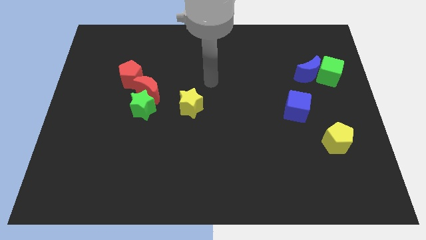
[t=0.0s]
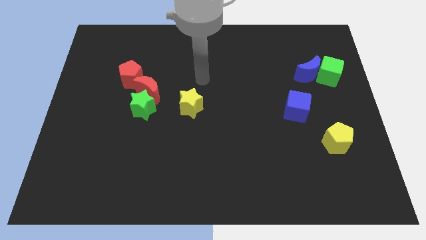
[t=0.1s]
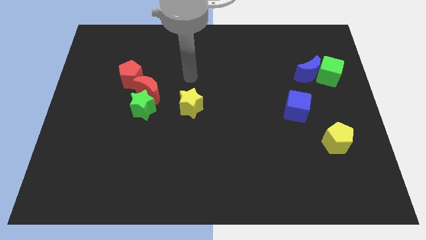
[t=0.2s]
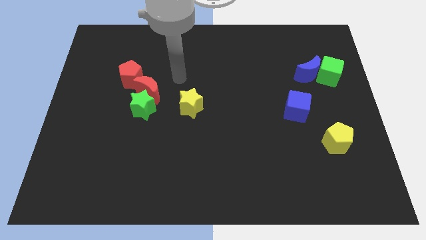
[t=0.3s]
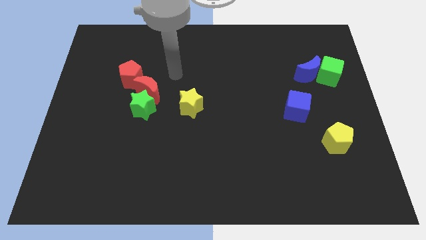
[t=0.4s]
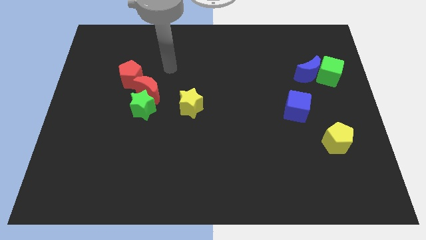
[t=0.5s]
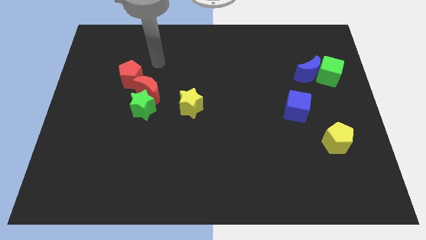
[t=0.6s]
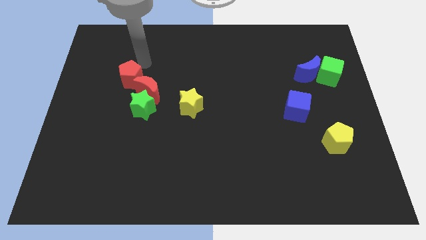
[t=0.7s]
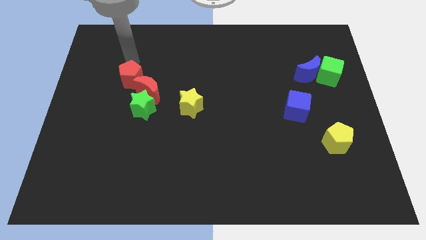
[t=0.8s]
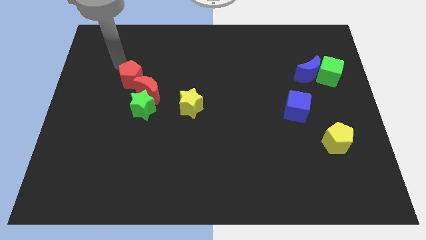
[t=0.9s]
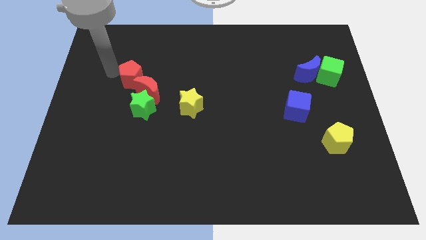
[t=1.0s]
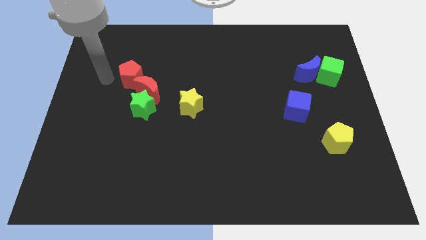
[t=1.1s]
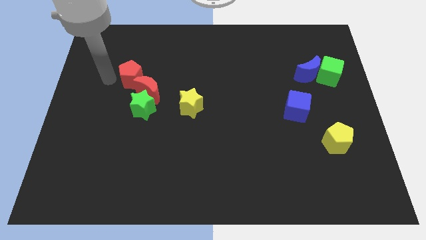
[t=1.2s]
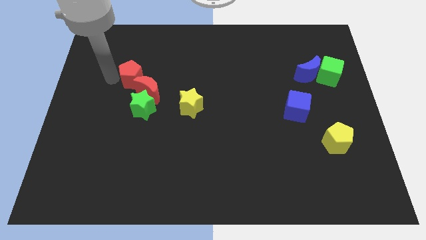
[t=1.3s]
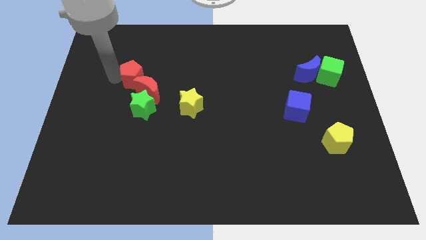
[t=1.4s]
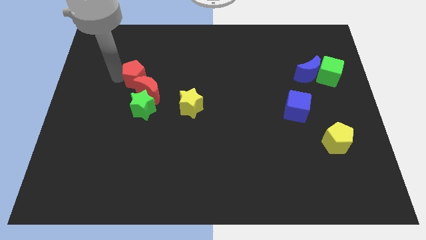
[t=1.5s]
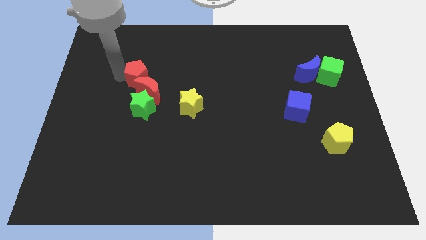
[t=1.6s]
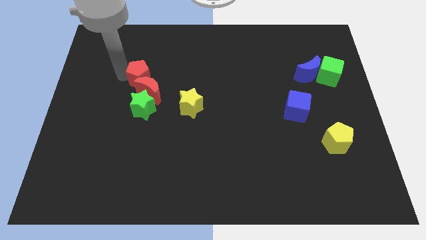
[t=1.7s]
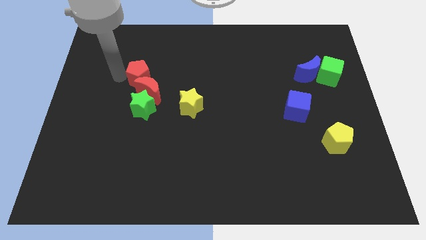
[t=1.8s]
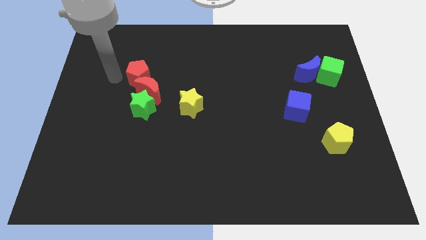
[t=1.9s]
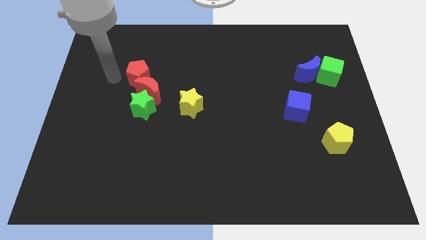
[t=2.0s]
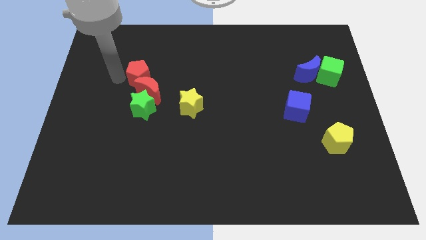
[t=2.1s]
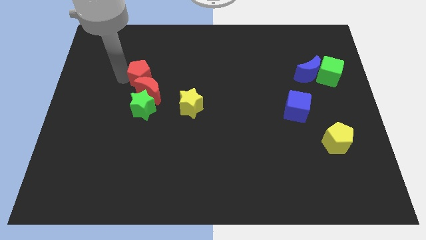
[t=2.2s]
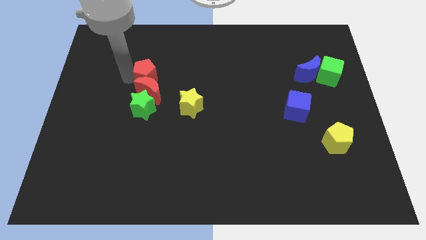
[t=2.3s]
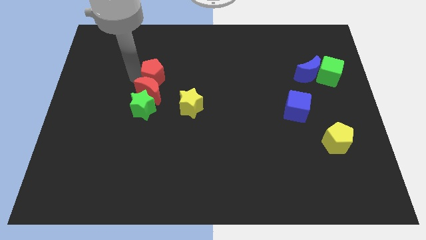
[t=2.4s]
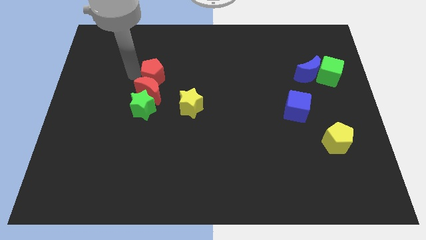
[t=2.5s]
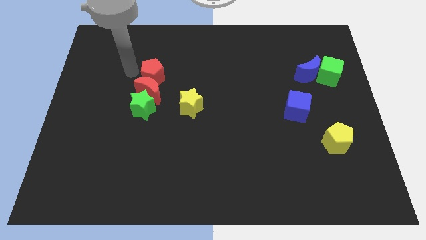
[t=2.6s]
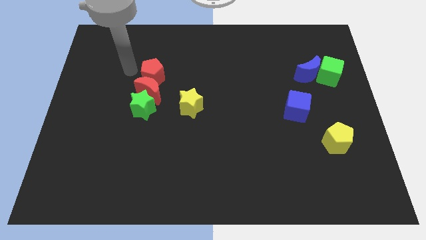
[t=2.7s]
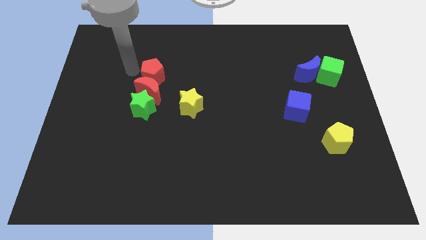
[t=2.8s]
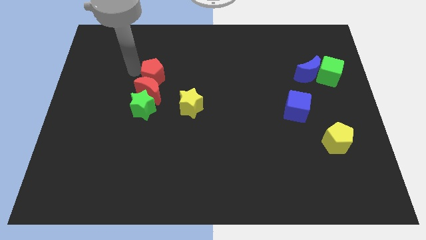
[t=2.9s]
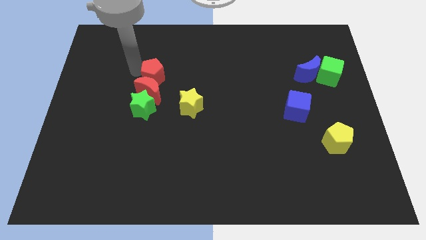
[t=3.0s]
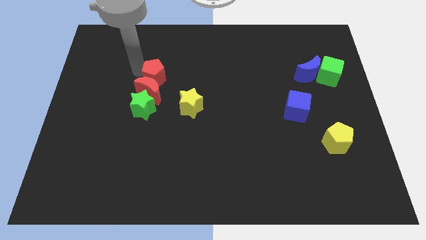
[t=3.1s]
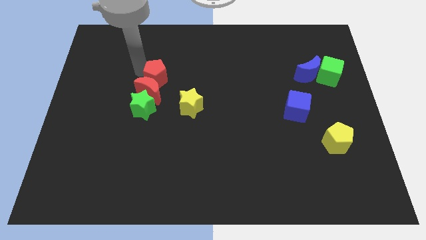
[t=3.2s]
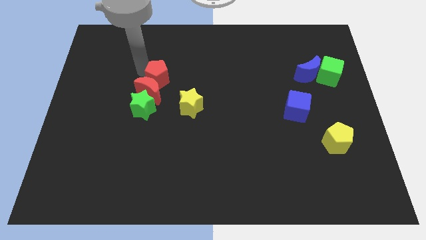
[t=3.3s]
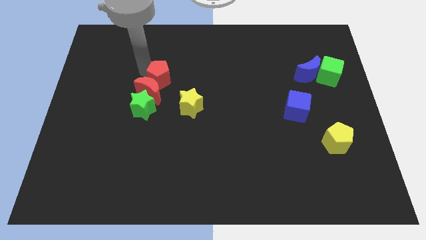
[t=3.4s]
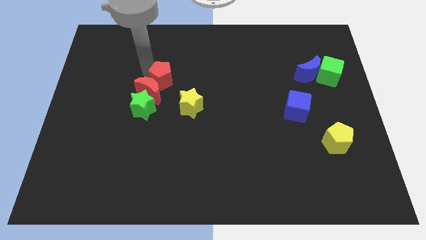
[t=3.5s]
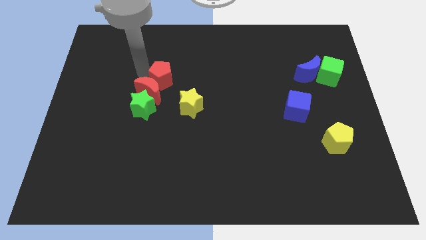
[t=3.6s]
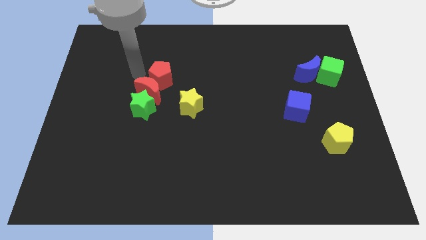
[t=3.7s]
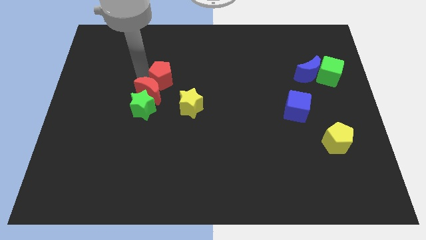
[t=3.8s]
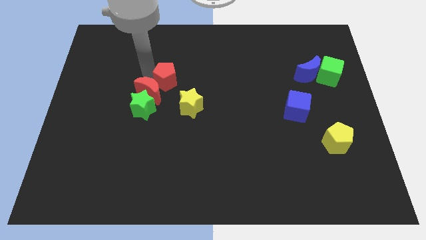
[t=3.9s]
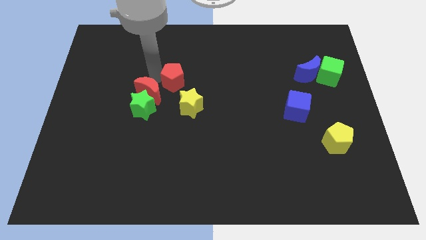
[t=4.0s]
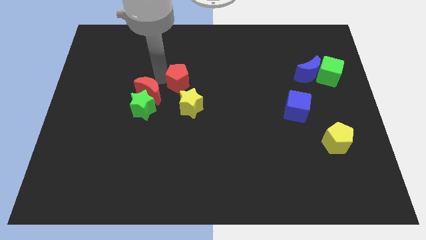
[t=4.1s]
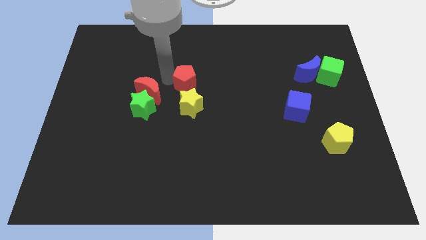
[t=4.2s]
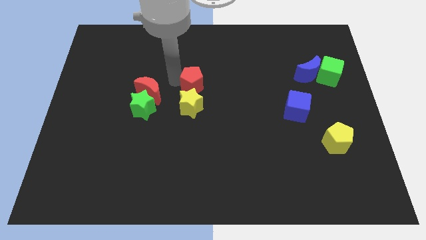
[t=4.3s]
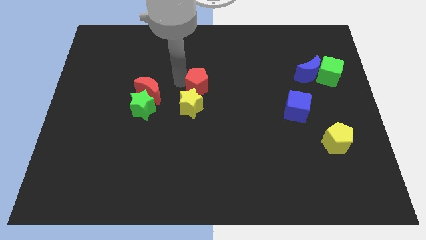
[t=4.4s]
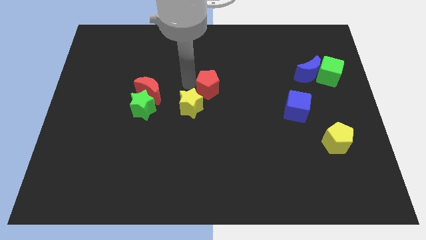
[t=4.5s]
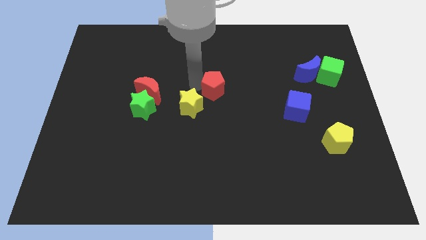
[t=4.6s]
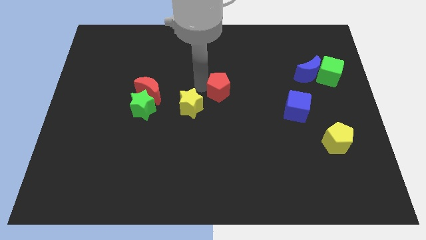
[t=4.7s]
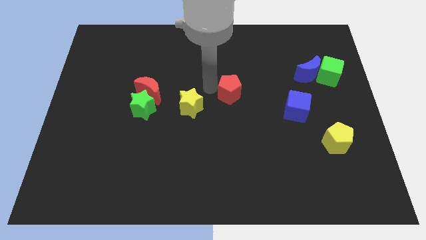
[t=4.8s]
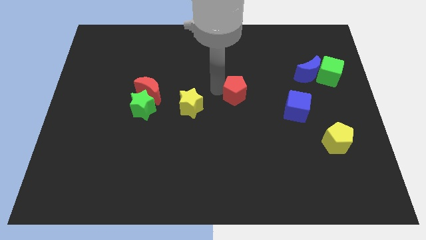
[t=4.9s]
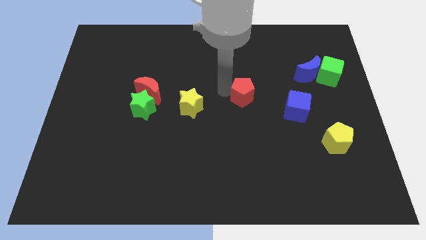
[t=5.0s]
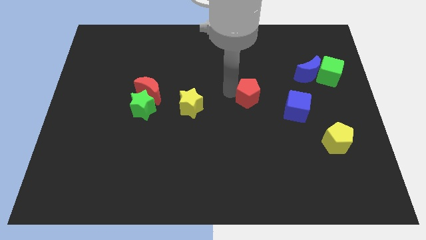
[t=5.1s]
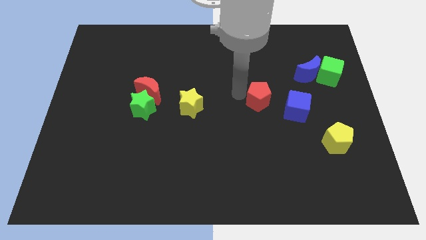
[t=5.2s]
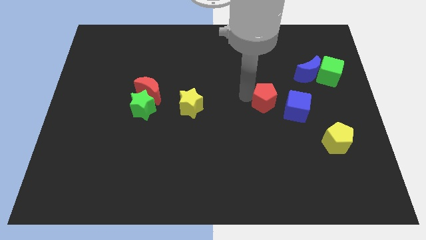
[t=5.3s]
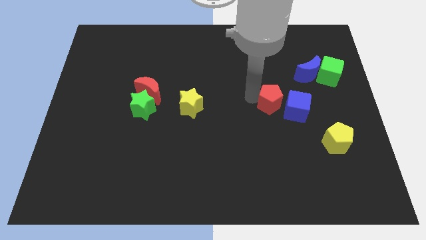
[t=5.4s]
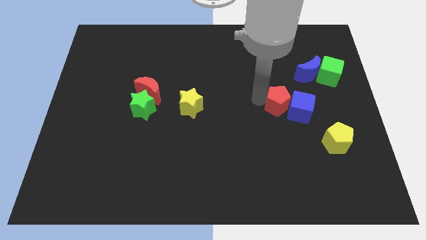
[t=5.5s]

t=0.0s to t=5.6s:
put the red pentagon towards the blue cube

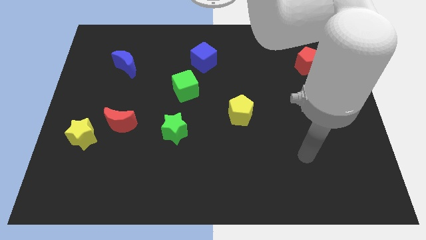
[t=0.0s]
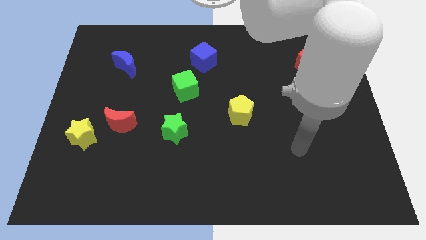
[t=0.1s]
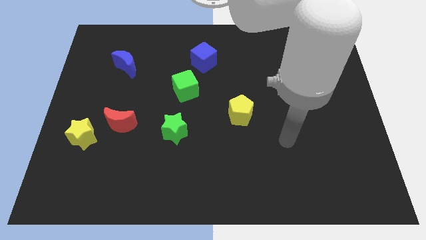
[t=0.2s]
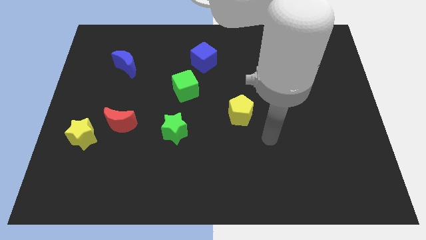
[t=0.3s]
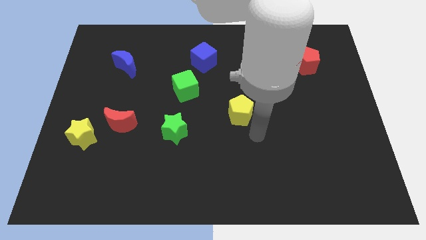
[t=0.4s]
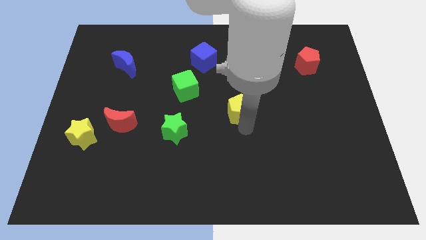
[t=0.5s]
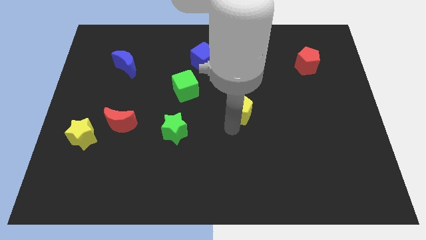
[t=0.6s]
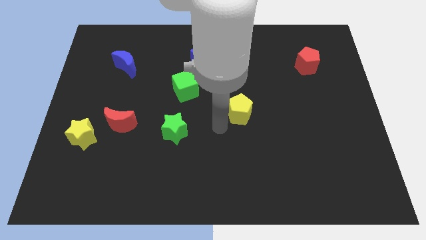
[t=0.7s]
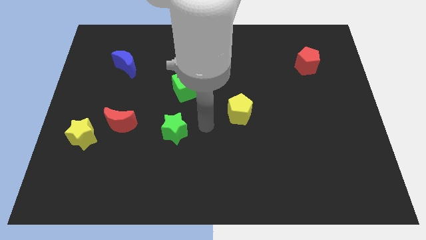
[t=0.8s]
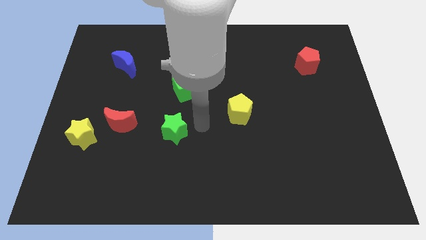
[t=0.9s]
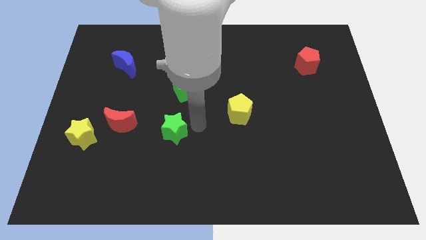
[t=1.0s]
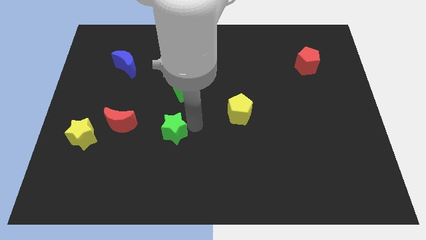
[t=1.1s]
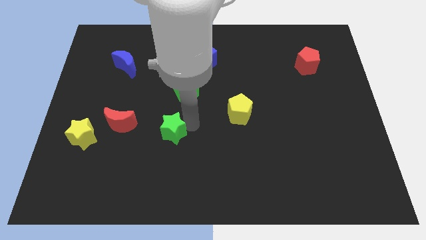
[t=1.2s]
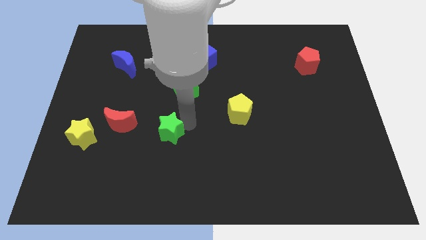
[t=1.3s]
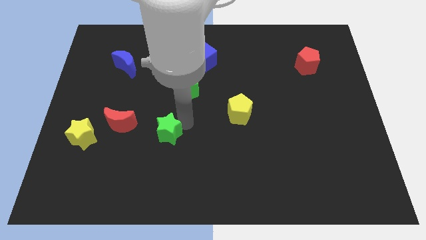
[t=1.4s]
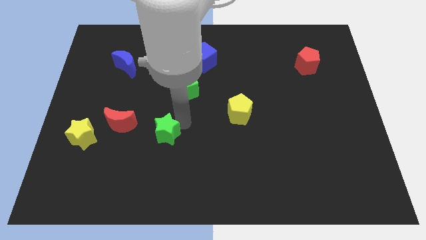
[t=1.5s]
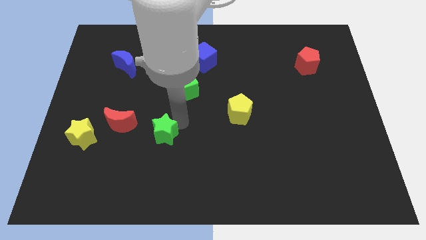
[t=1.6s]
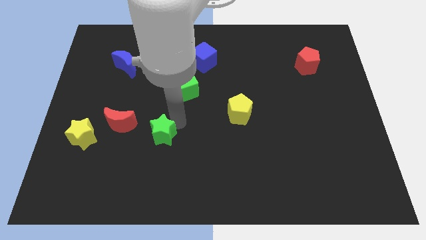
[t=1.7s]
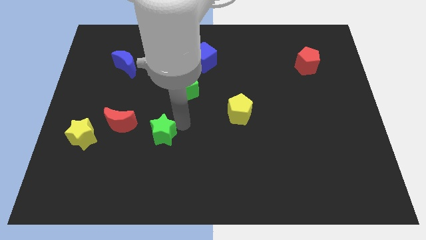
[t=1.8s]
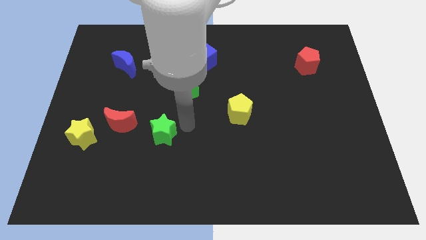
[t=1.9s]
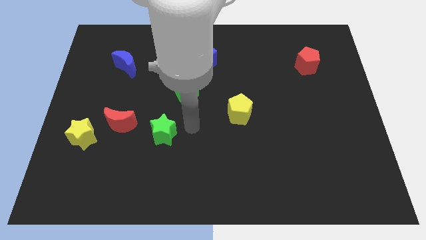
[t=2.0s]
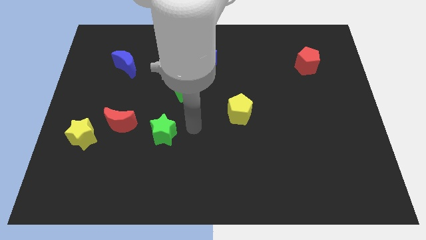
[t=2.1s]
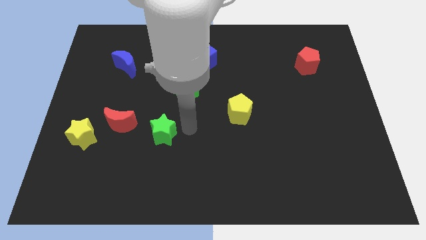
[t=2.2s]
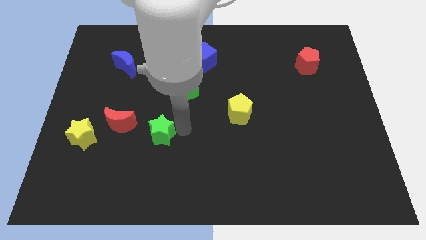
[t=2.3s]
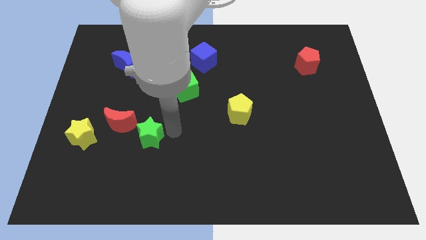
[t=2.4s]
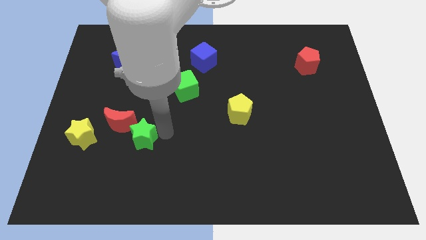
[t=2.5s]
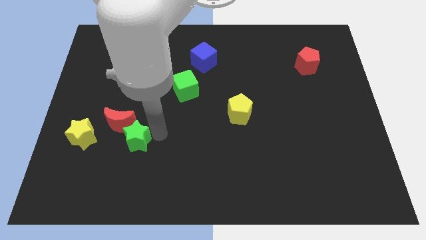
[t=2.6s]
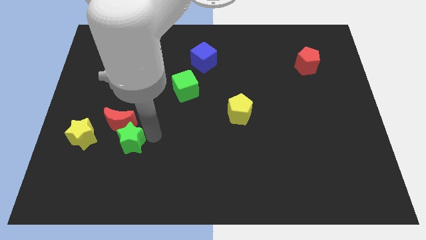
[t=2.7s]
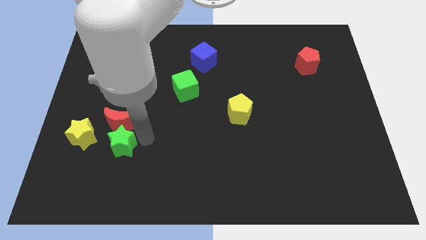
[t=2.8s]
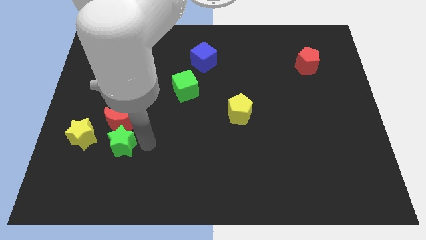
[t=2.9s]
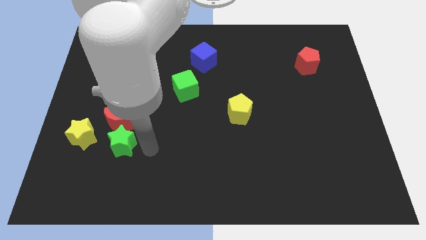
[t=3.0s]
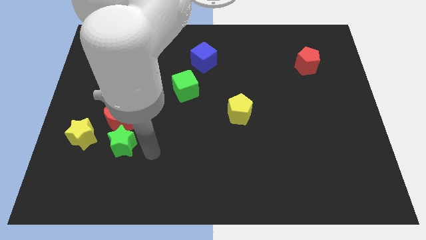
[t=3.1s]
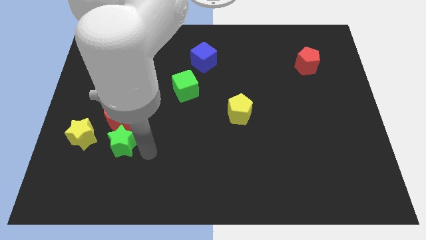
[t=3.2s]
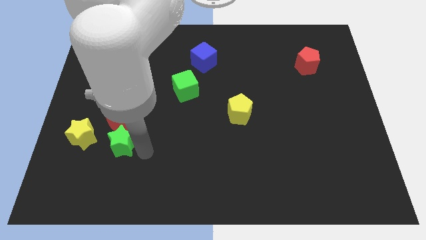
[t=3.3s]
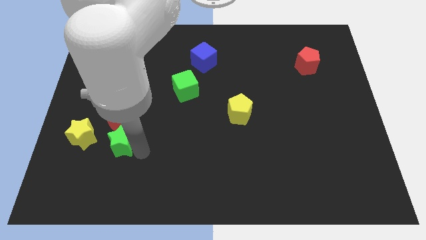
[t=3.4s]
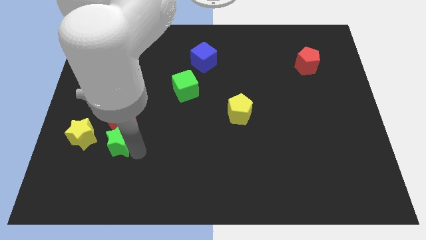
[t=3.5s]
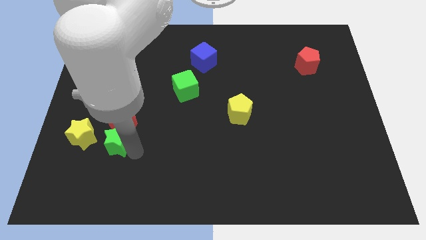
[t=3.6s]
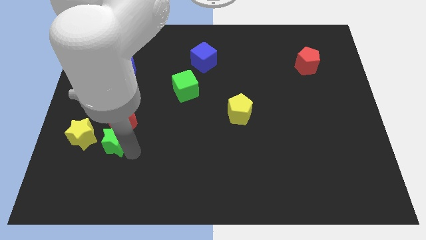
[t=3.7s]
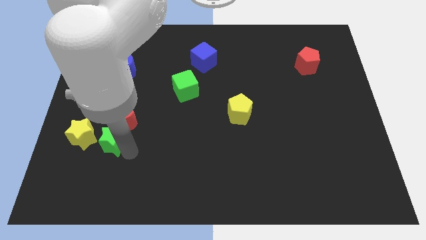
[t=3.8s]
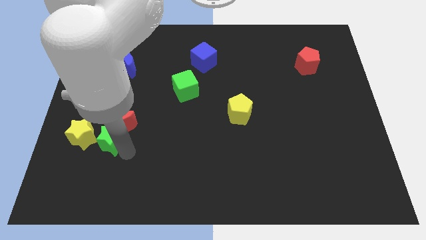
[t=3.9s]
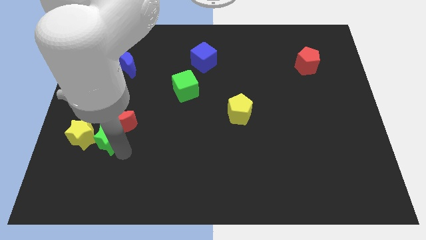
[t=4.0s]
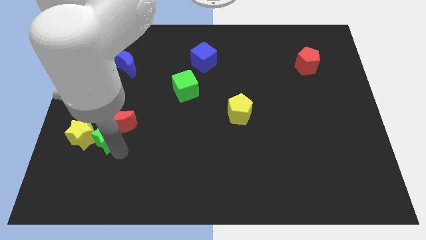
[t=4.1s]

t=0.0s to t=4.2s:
put the green star next to the yellow star
